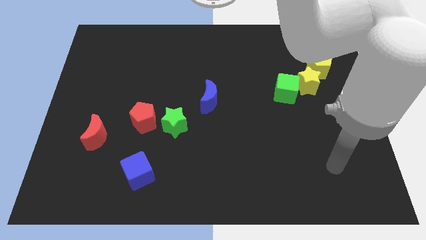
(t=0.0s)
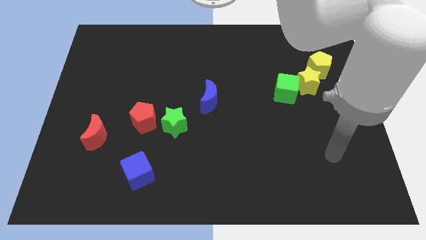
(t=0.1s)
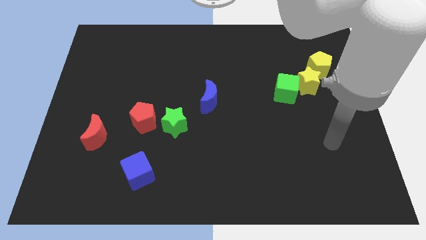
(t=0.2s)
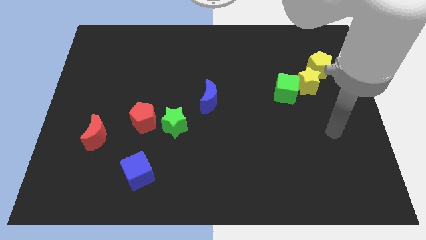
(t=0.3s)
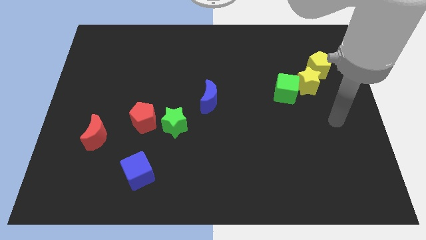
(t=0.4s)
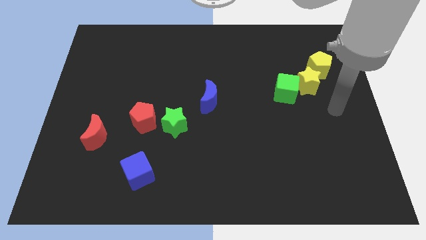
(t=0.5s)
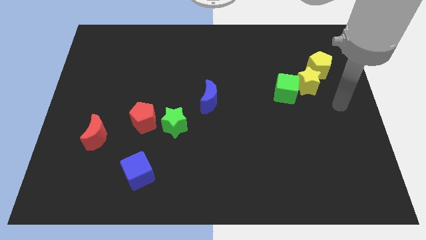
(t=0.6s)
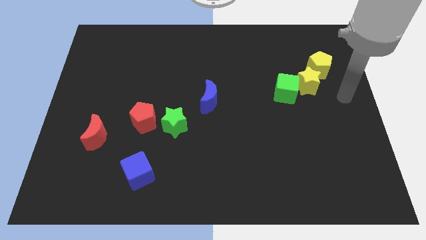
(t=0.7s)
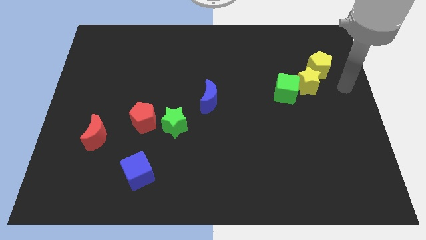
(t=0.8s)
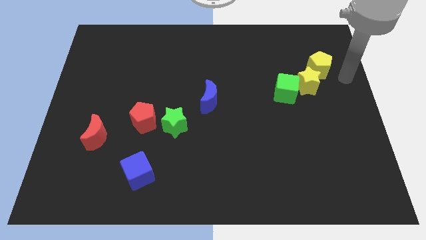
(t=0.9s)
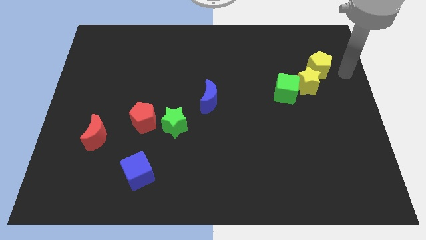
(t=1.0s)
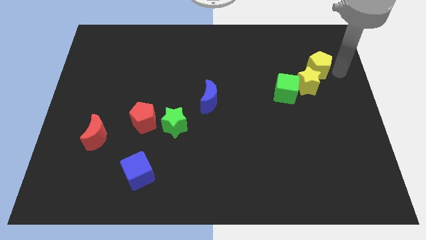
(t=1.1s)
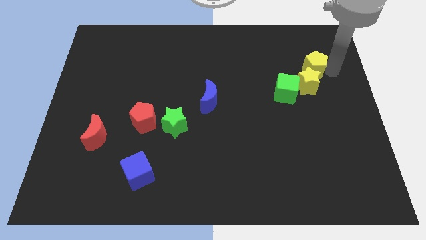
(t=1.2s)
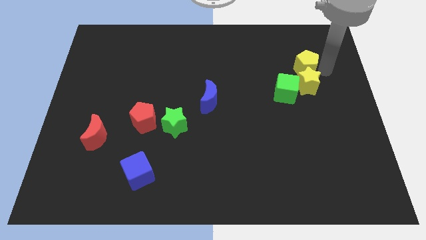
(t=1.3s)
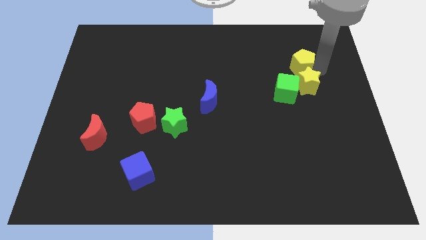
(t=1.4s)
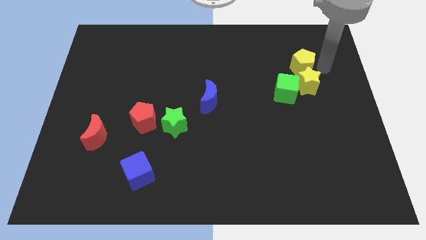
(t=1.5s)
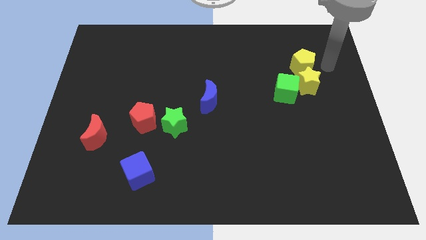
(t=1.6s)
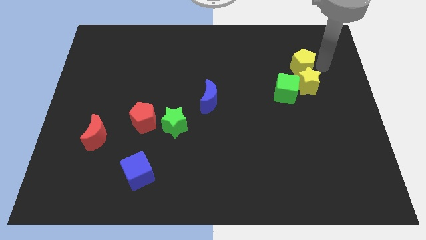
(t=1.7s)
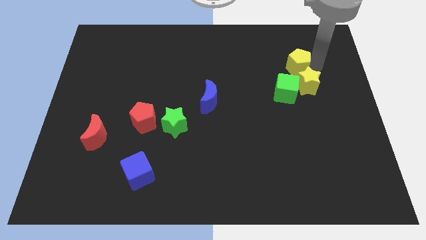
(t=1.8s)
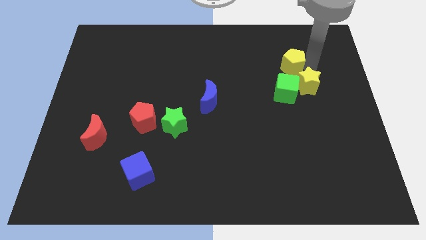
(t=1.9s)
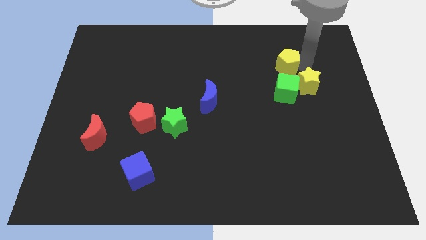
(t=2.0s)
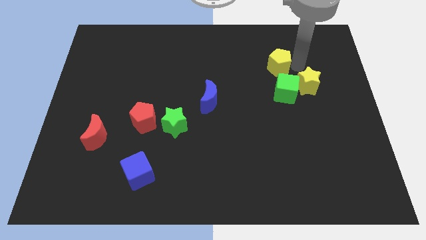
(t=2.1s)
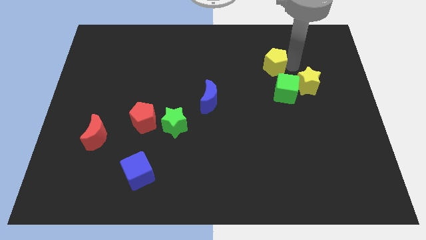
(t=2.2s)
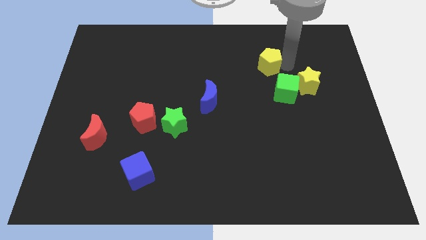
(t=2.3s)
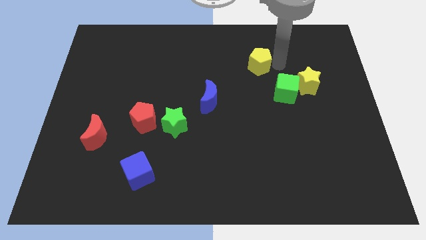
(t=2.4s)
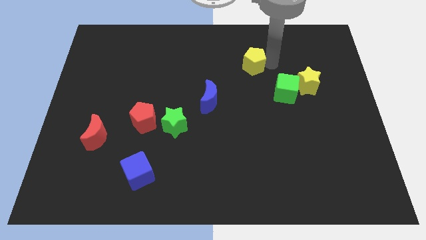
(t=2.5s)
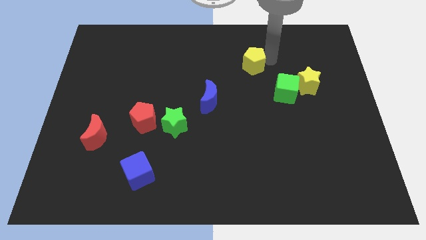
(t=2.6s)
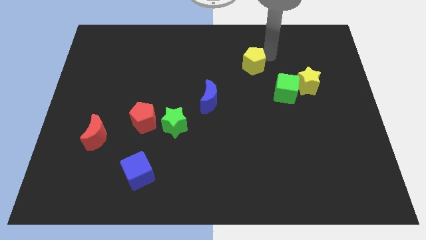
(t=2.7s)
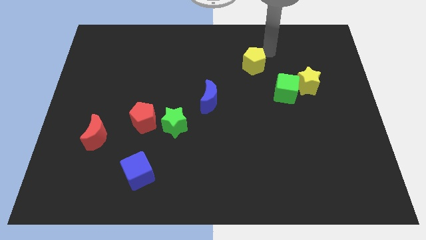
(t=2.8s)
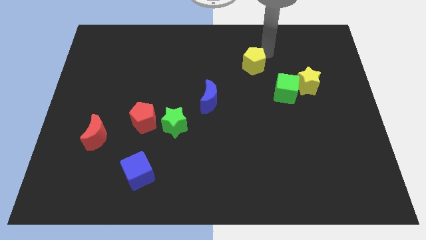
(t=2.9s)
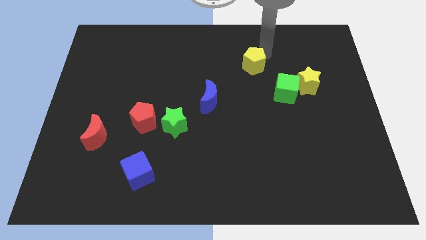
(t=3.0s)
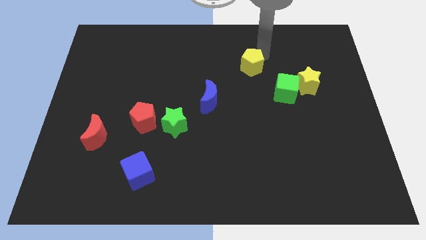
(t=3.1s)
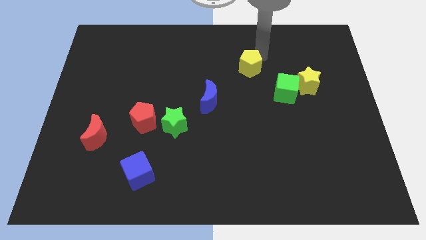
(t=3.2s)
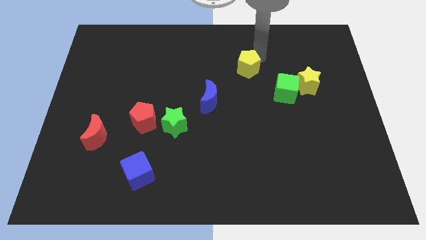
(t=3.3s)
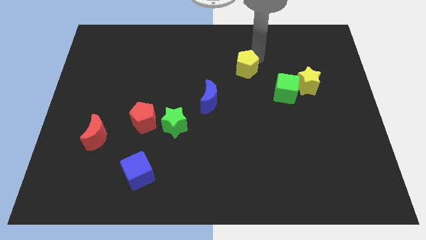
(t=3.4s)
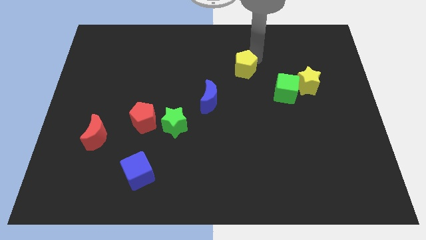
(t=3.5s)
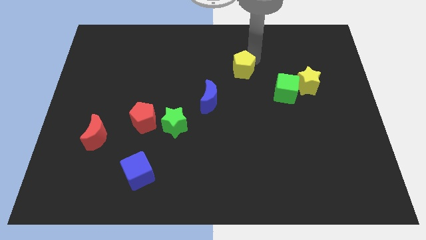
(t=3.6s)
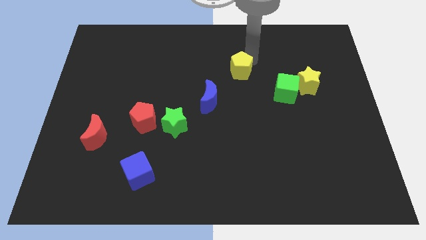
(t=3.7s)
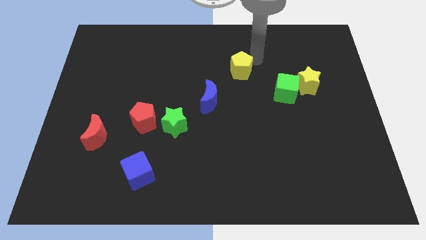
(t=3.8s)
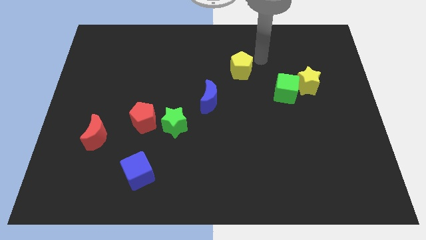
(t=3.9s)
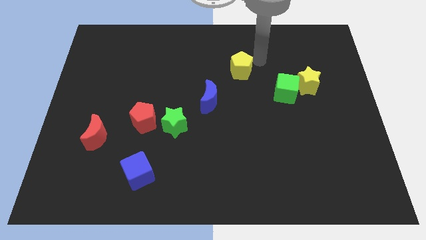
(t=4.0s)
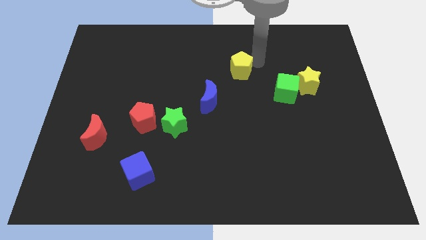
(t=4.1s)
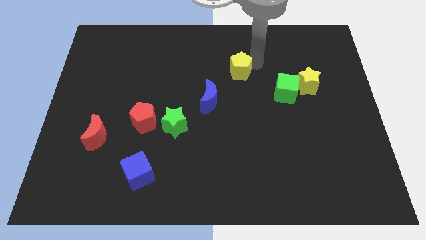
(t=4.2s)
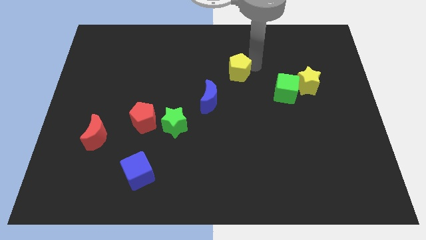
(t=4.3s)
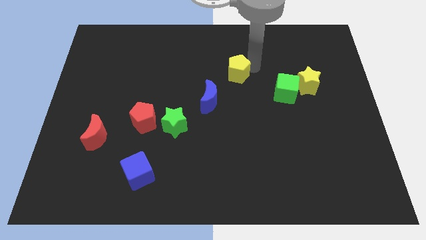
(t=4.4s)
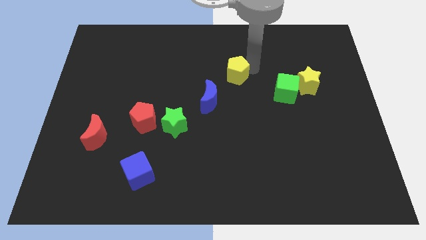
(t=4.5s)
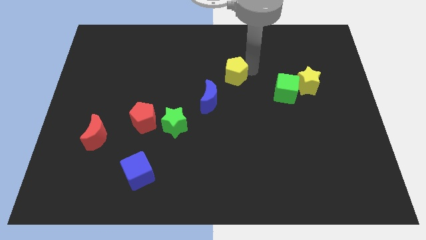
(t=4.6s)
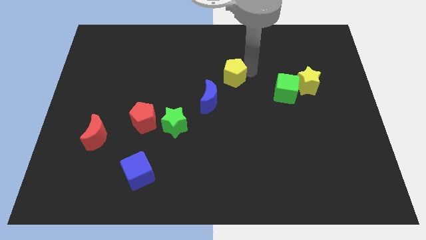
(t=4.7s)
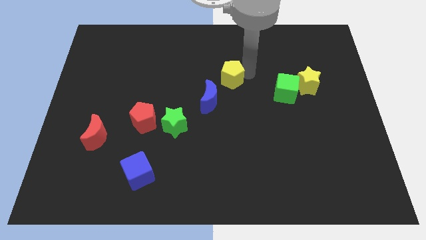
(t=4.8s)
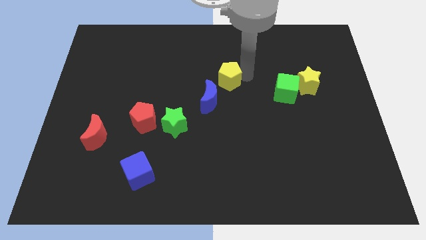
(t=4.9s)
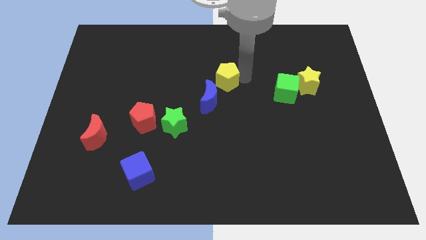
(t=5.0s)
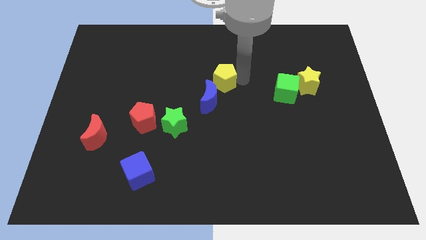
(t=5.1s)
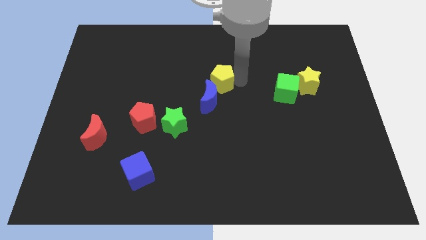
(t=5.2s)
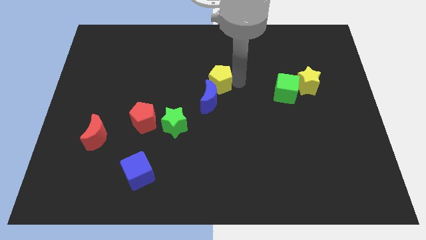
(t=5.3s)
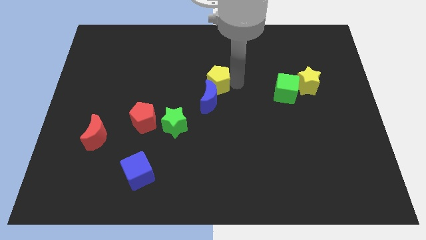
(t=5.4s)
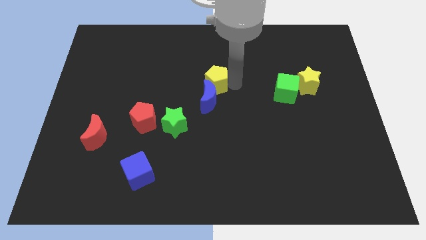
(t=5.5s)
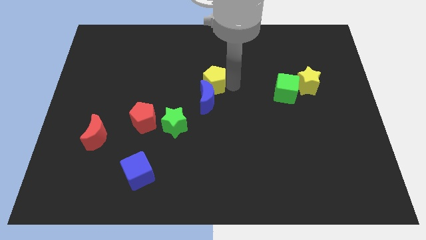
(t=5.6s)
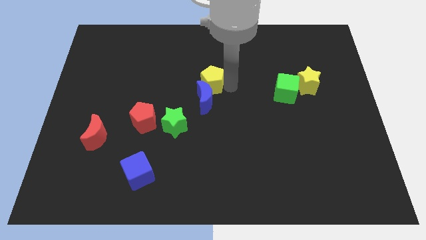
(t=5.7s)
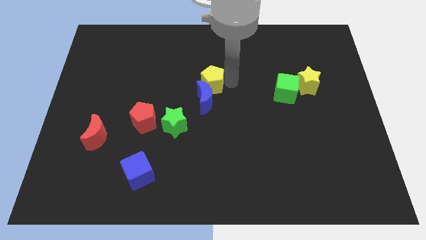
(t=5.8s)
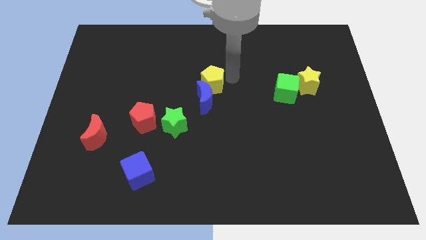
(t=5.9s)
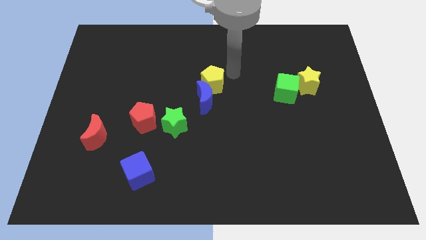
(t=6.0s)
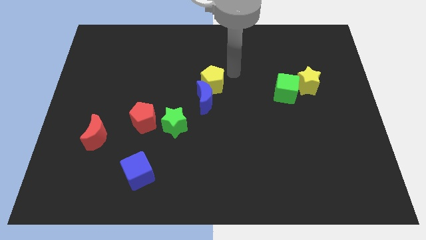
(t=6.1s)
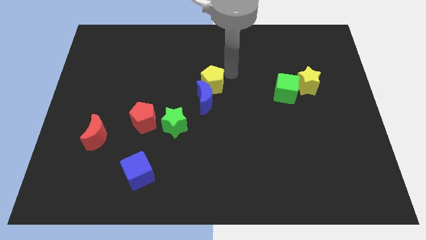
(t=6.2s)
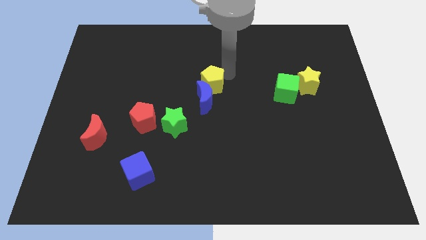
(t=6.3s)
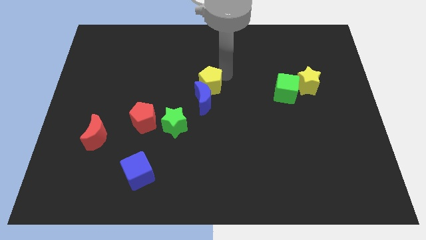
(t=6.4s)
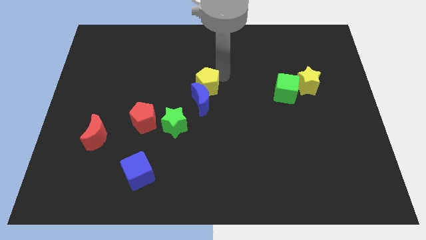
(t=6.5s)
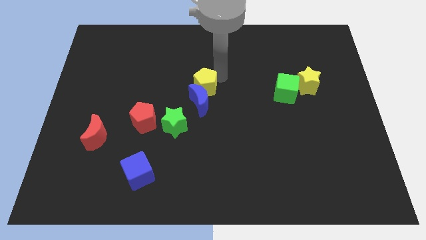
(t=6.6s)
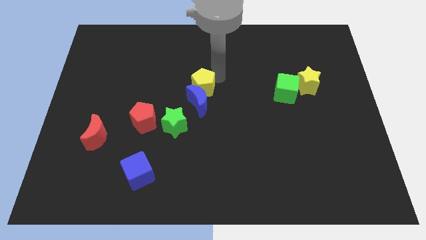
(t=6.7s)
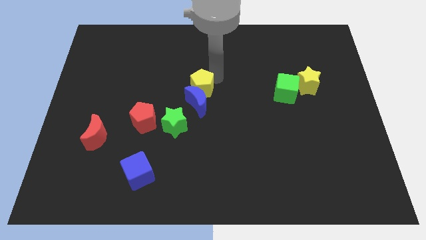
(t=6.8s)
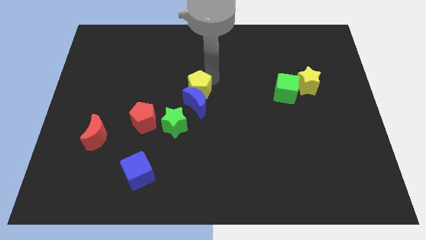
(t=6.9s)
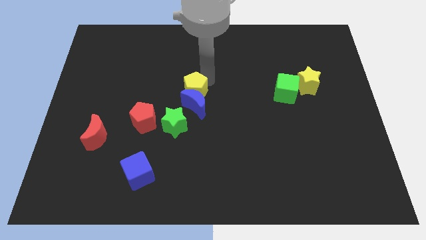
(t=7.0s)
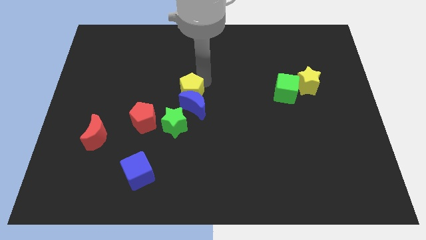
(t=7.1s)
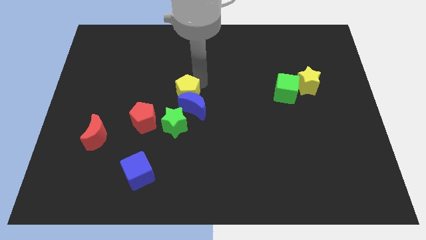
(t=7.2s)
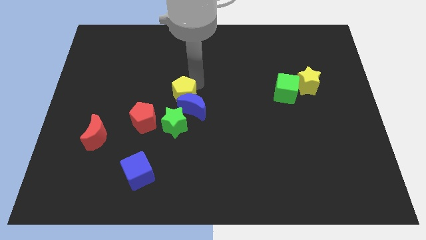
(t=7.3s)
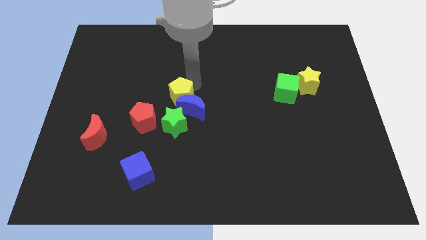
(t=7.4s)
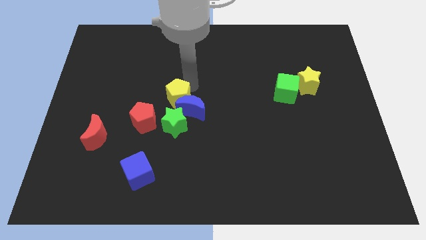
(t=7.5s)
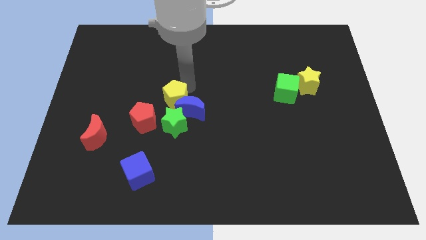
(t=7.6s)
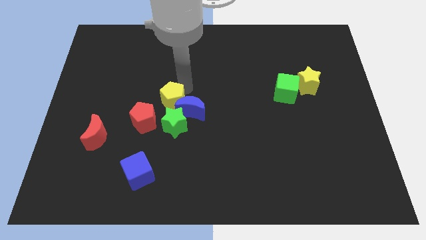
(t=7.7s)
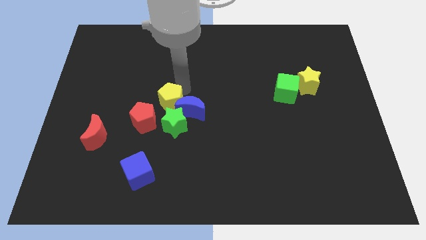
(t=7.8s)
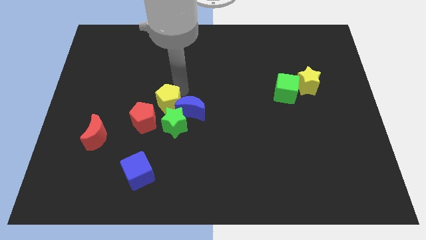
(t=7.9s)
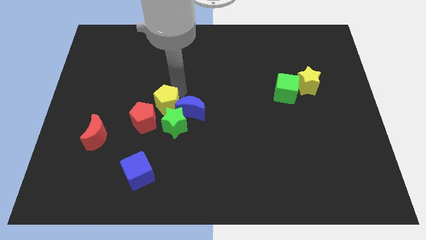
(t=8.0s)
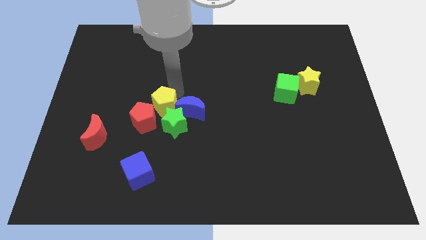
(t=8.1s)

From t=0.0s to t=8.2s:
put the yellow pentagon towards the red pentagon
